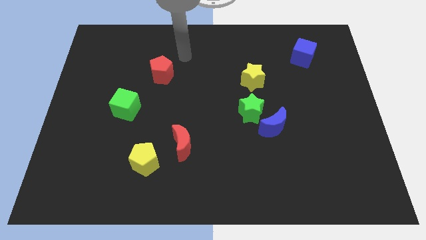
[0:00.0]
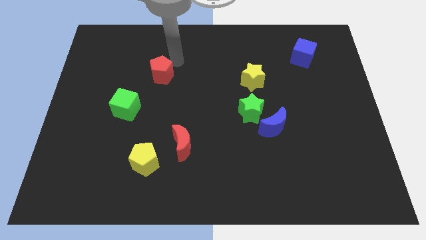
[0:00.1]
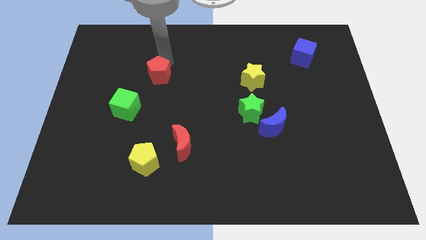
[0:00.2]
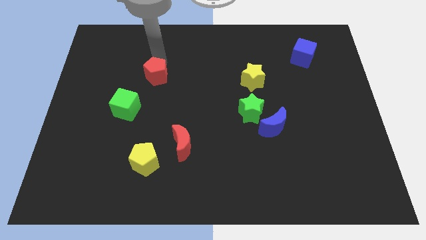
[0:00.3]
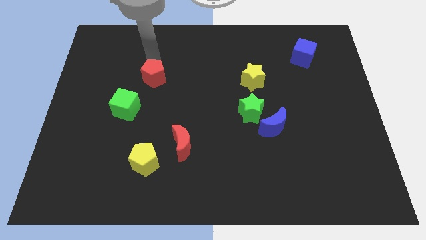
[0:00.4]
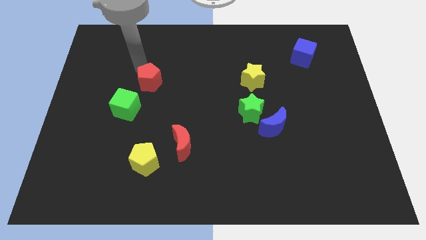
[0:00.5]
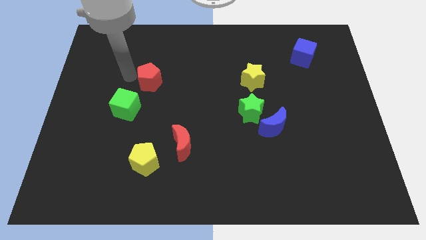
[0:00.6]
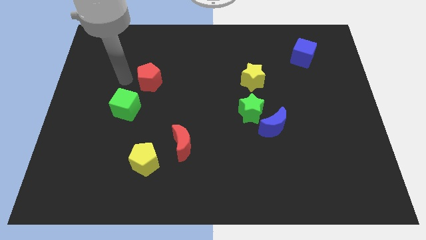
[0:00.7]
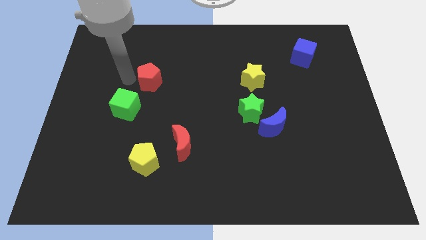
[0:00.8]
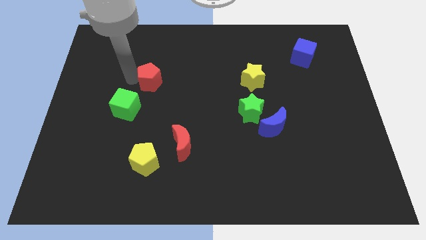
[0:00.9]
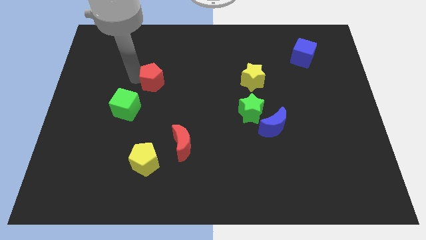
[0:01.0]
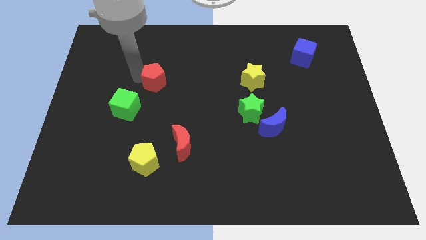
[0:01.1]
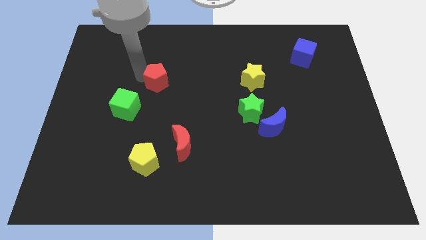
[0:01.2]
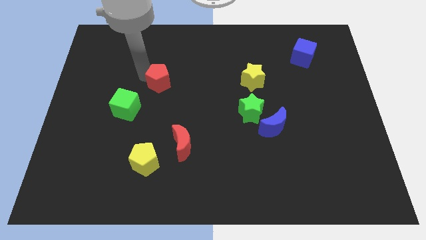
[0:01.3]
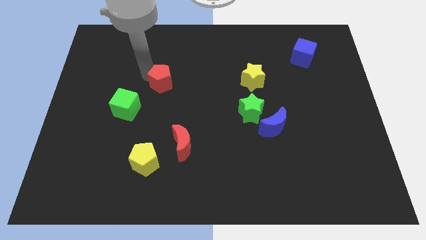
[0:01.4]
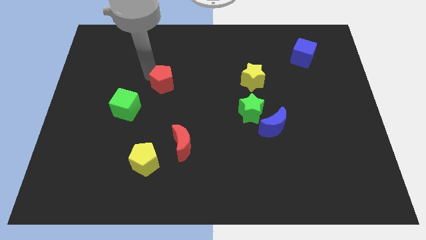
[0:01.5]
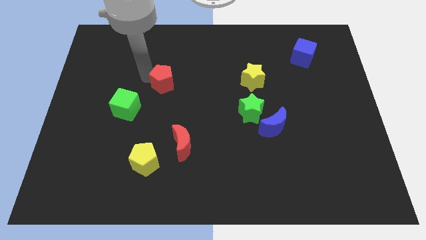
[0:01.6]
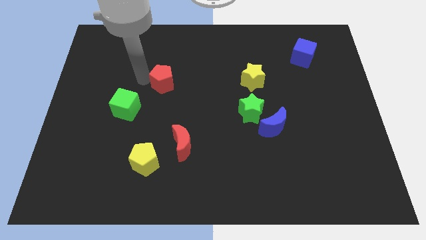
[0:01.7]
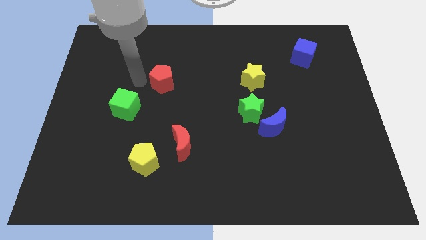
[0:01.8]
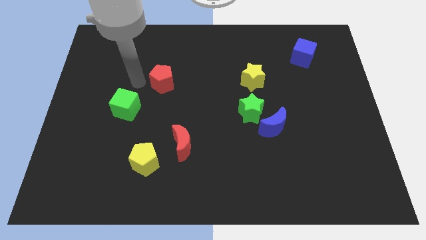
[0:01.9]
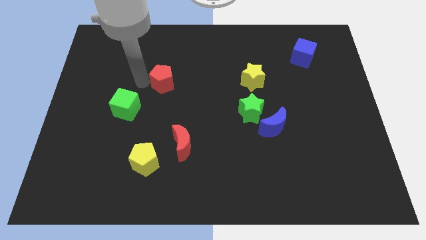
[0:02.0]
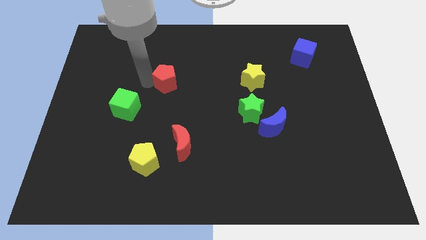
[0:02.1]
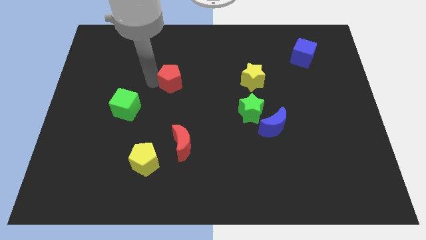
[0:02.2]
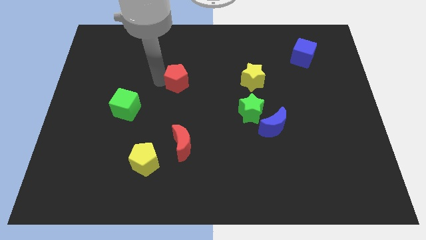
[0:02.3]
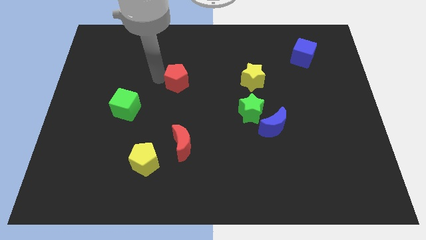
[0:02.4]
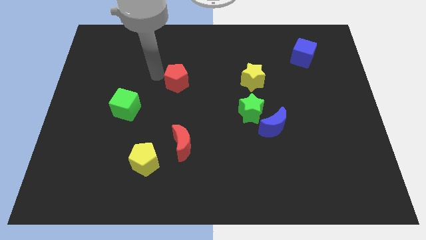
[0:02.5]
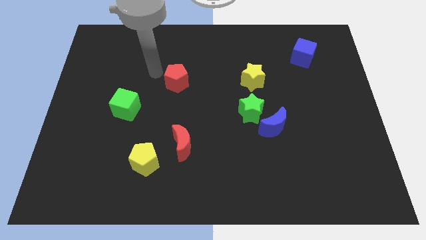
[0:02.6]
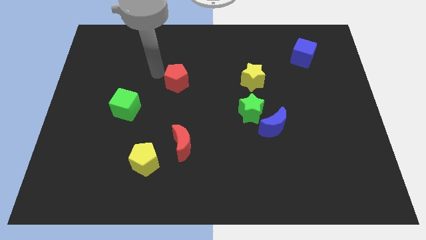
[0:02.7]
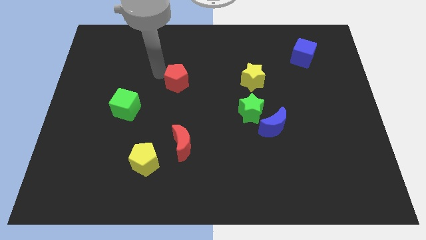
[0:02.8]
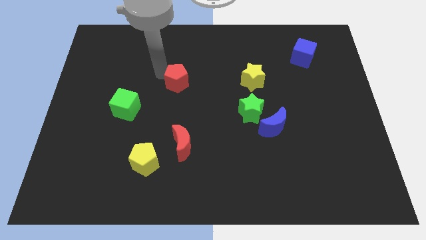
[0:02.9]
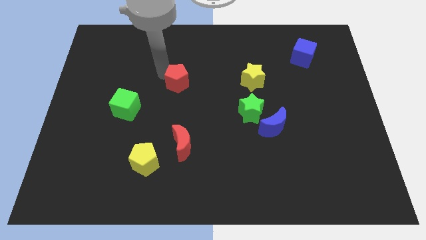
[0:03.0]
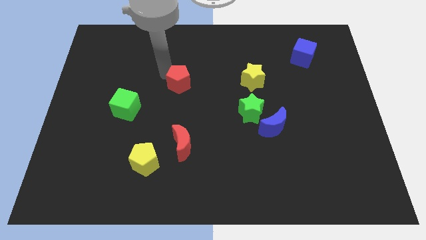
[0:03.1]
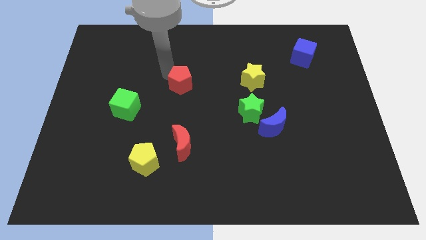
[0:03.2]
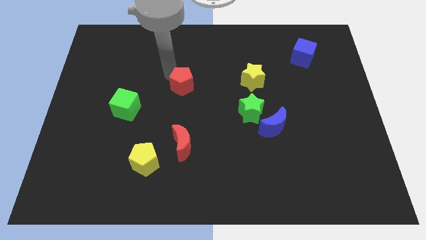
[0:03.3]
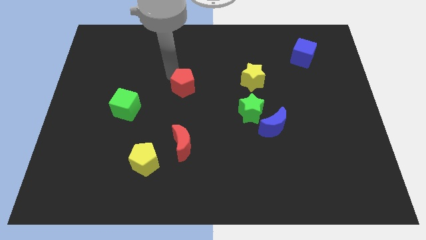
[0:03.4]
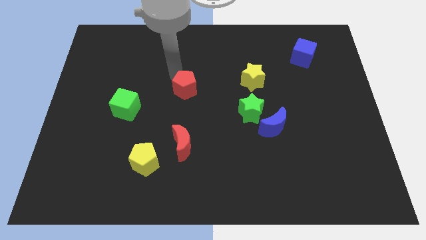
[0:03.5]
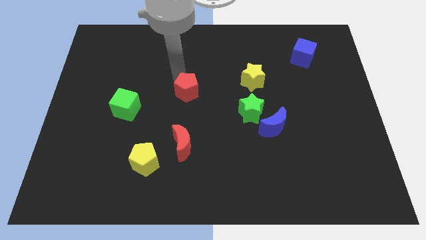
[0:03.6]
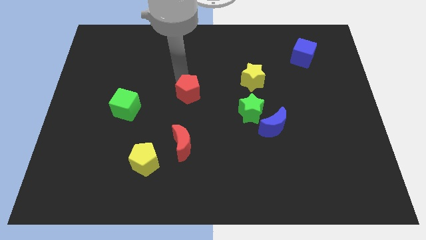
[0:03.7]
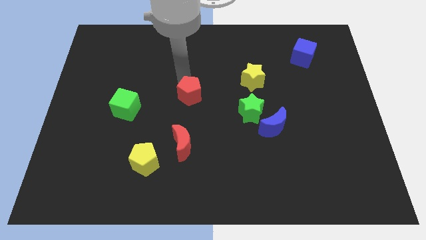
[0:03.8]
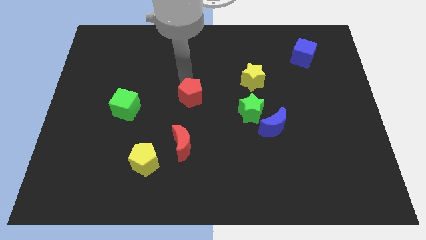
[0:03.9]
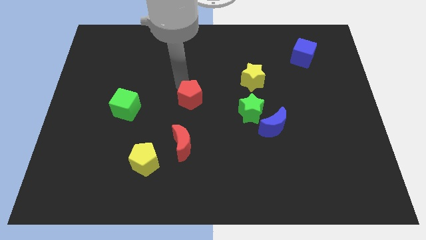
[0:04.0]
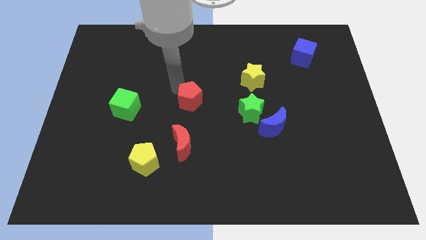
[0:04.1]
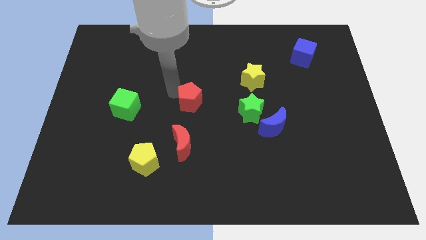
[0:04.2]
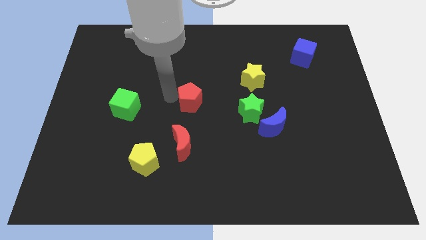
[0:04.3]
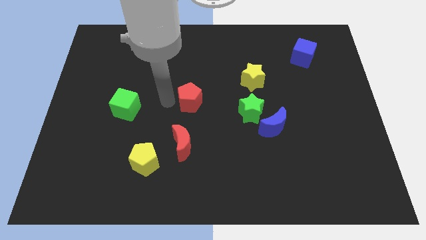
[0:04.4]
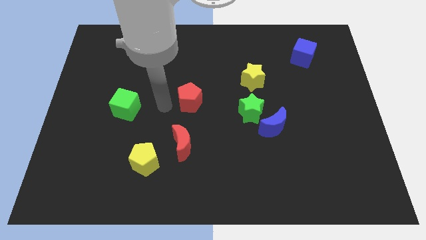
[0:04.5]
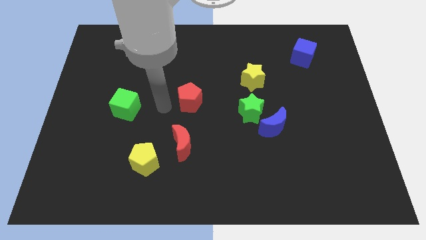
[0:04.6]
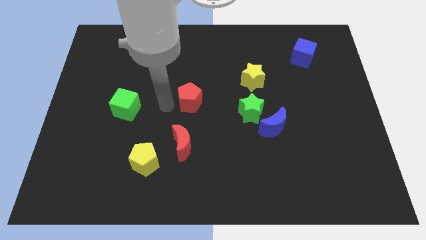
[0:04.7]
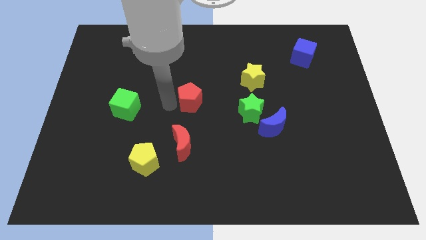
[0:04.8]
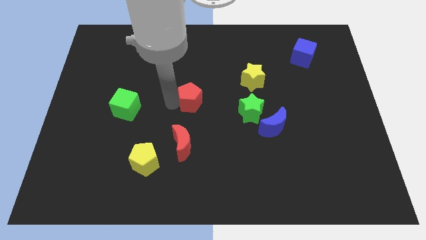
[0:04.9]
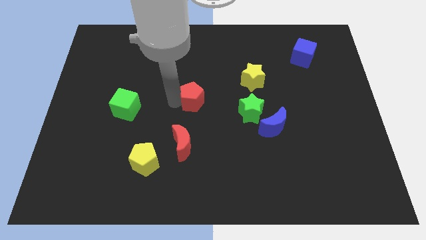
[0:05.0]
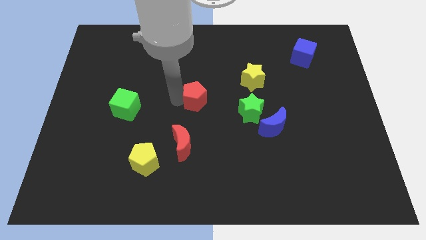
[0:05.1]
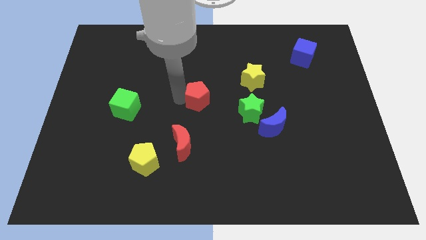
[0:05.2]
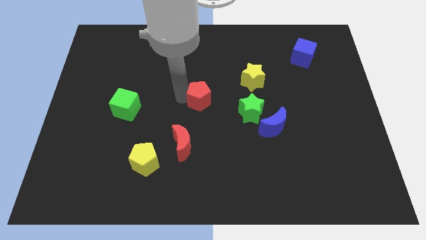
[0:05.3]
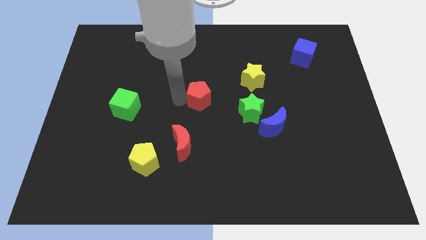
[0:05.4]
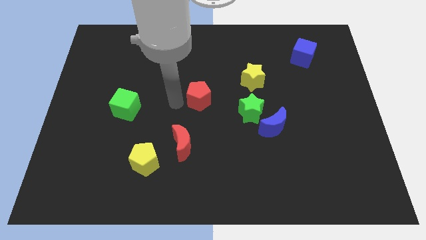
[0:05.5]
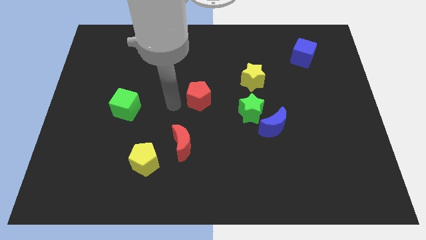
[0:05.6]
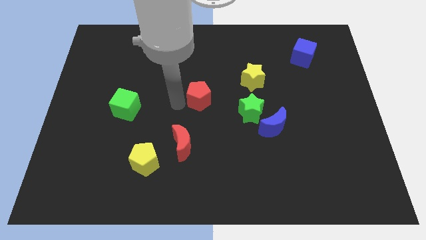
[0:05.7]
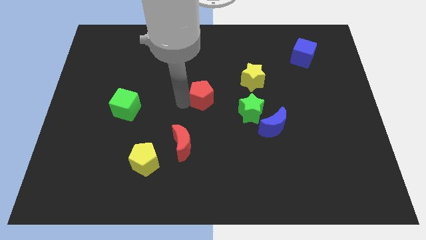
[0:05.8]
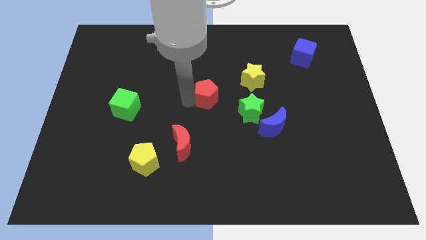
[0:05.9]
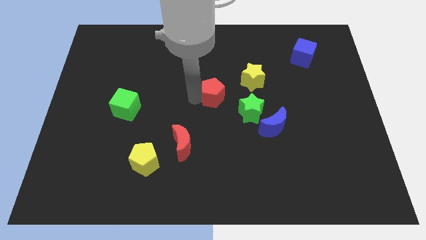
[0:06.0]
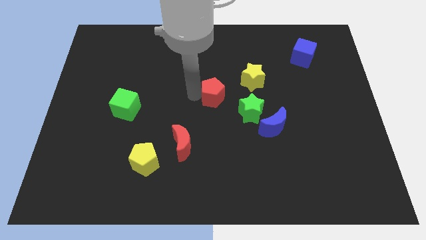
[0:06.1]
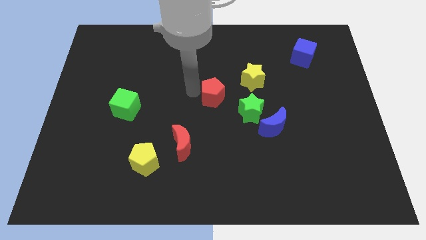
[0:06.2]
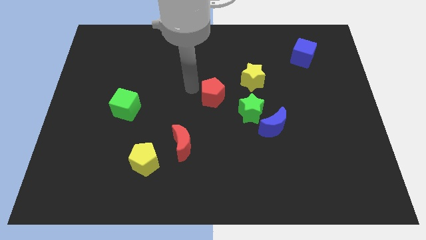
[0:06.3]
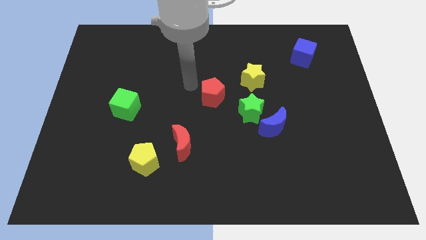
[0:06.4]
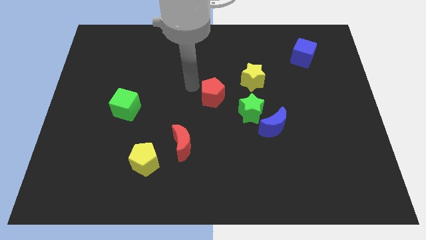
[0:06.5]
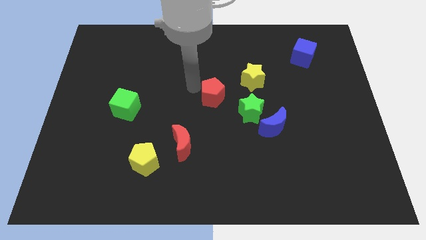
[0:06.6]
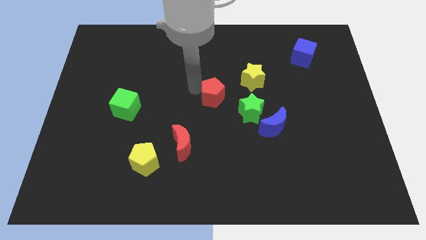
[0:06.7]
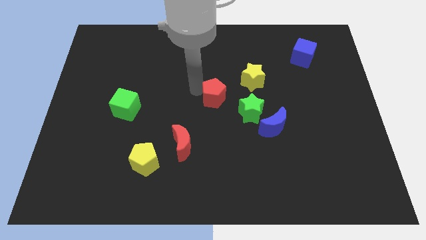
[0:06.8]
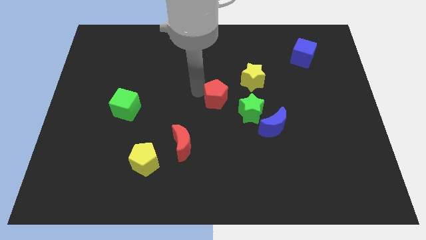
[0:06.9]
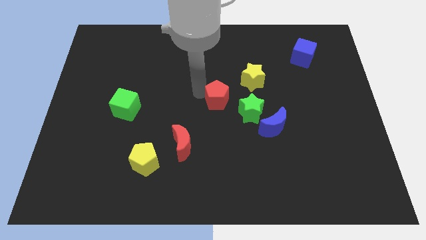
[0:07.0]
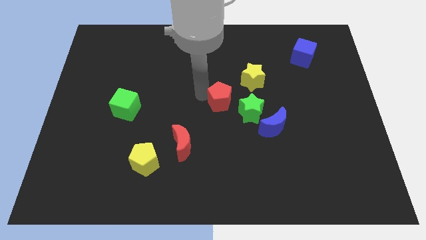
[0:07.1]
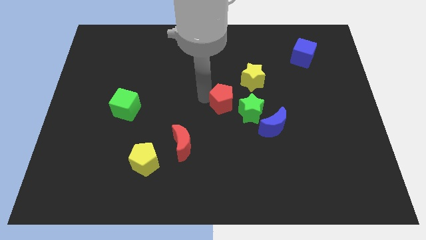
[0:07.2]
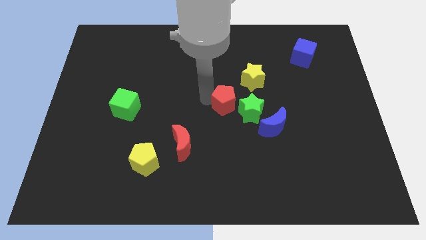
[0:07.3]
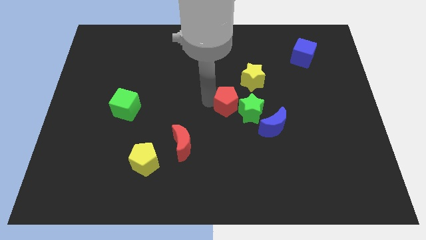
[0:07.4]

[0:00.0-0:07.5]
push the red pentagon close to the green star
